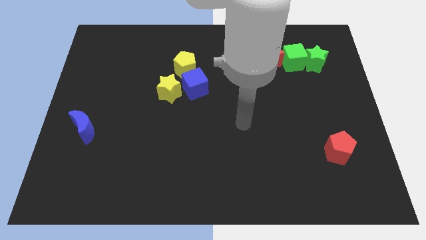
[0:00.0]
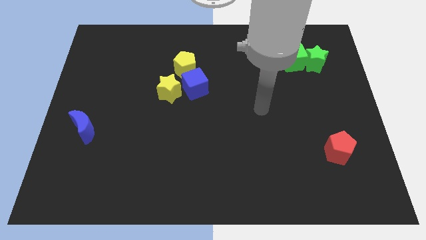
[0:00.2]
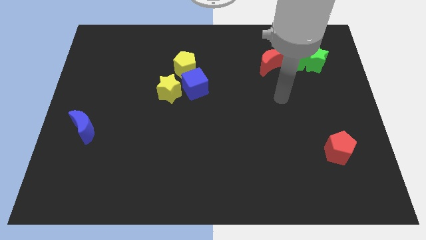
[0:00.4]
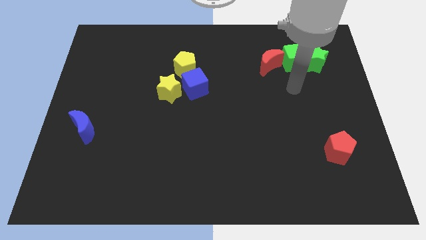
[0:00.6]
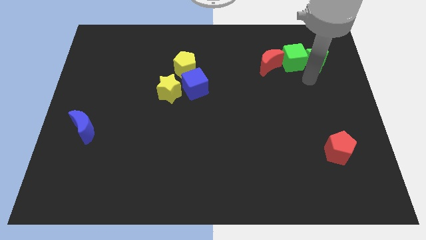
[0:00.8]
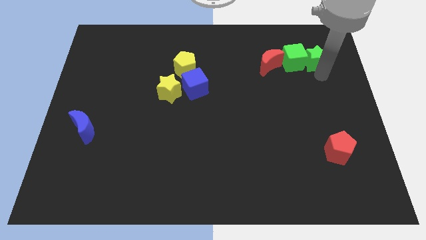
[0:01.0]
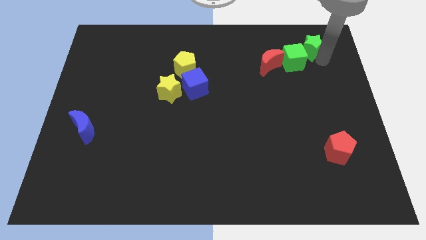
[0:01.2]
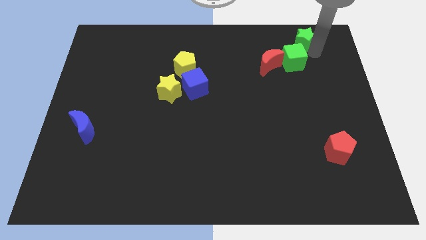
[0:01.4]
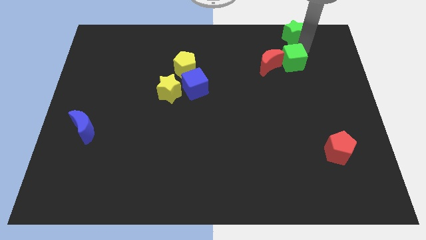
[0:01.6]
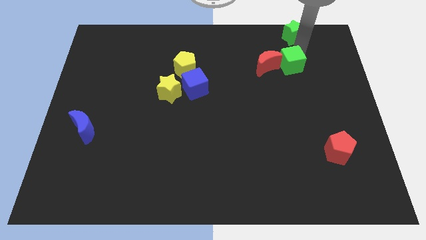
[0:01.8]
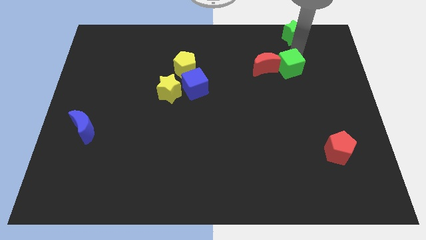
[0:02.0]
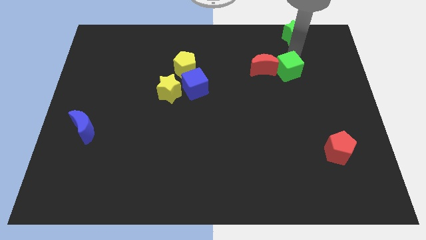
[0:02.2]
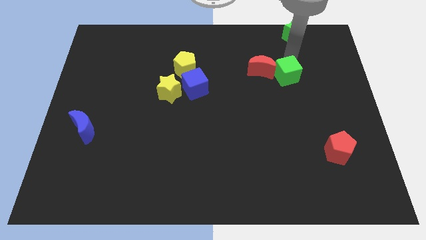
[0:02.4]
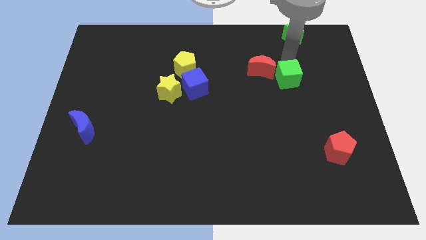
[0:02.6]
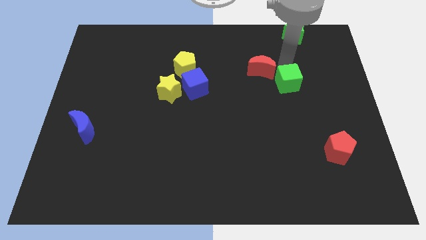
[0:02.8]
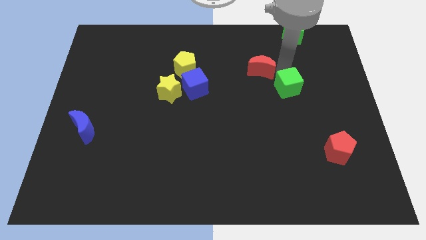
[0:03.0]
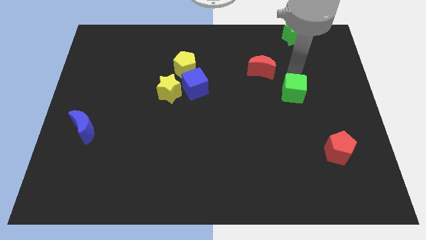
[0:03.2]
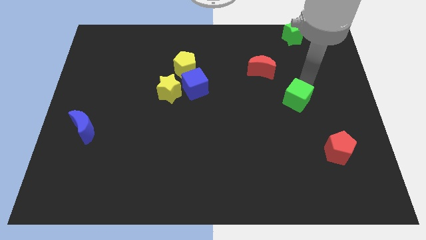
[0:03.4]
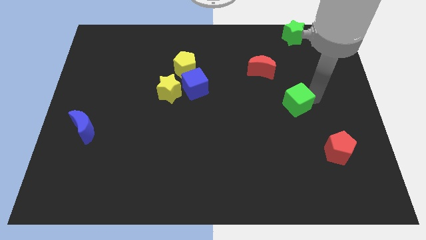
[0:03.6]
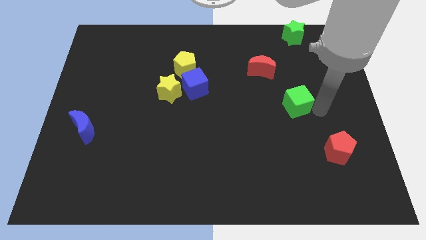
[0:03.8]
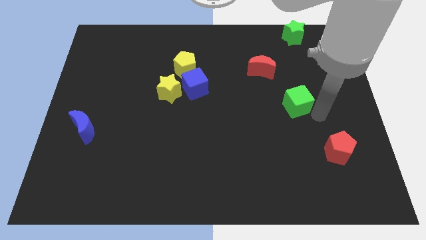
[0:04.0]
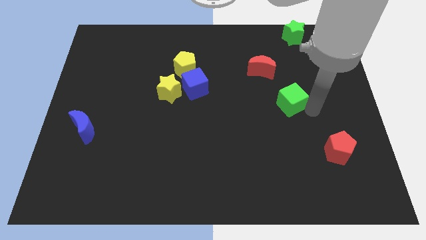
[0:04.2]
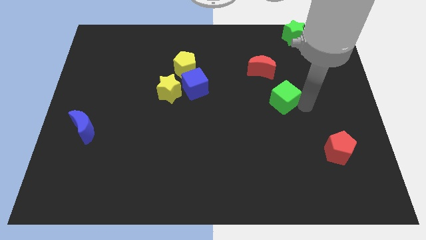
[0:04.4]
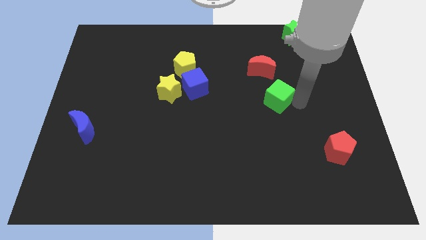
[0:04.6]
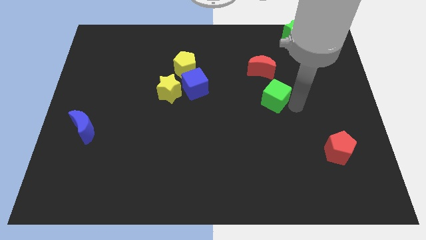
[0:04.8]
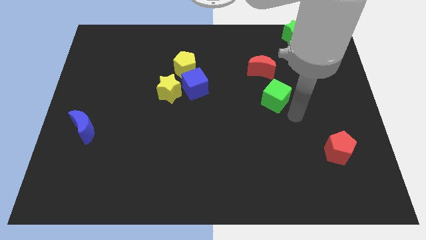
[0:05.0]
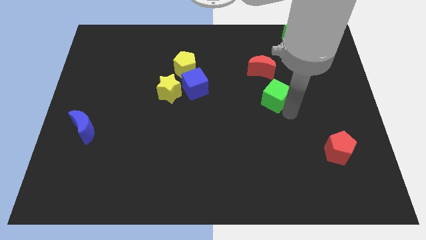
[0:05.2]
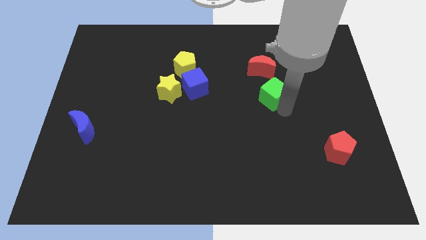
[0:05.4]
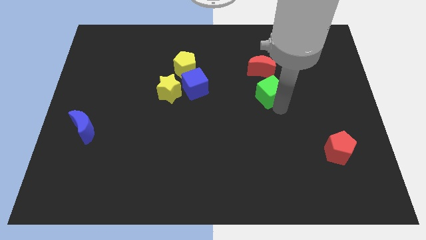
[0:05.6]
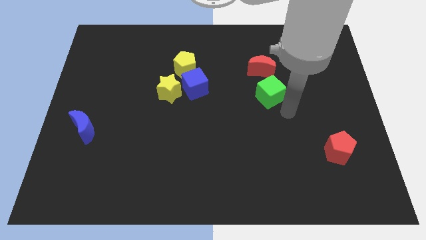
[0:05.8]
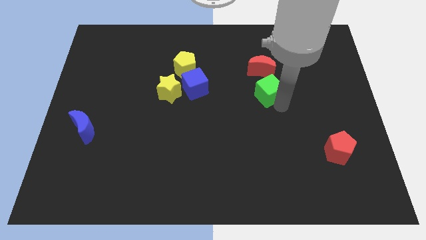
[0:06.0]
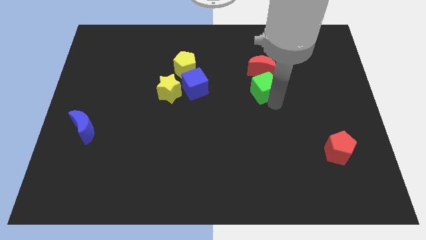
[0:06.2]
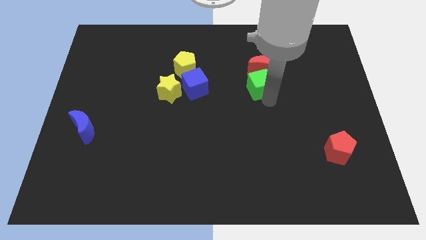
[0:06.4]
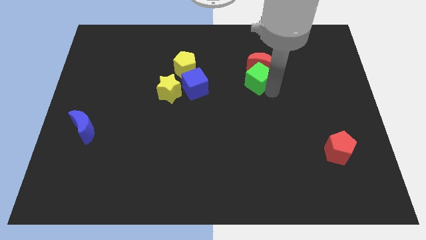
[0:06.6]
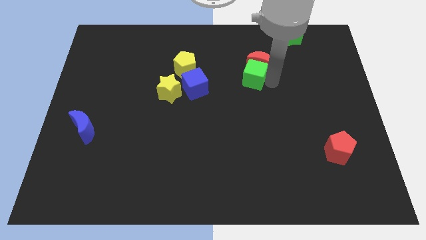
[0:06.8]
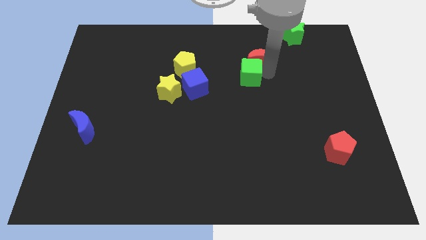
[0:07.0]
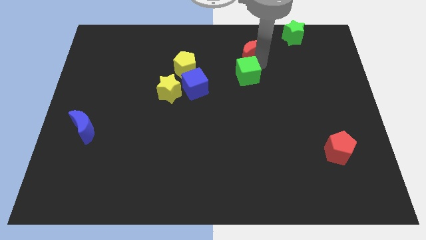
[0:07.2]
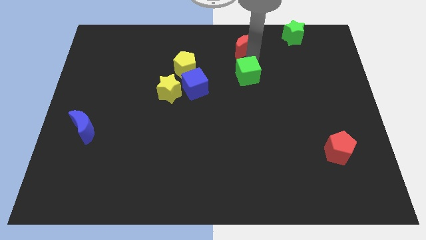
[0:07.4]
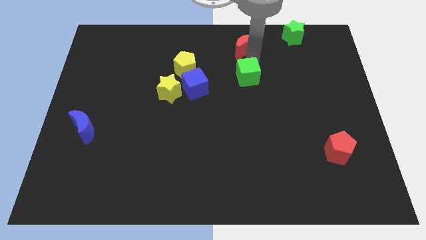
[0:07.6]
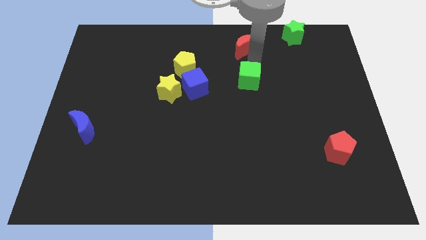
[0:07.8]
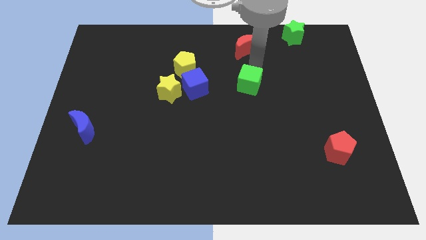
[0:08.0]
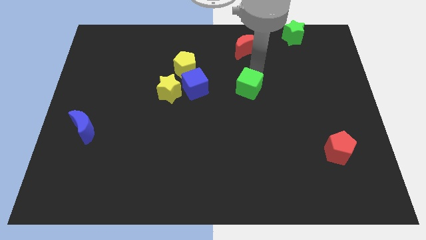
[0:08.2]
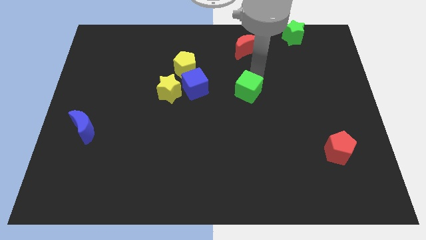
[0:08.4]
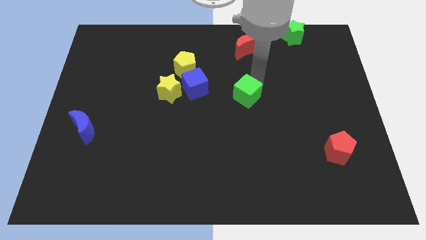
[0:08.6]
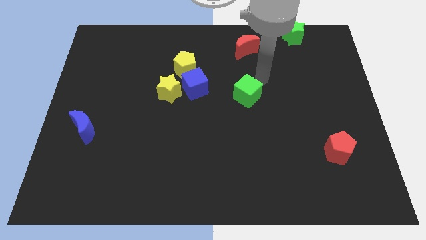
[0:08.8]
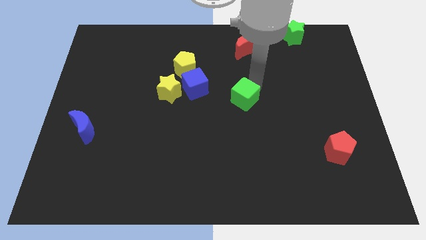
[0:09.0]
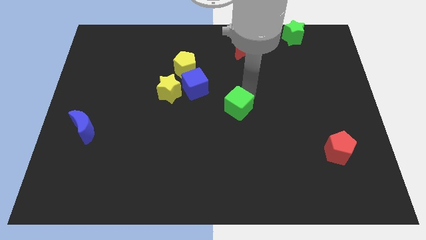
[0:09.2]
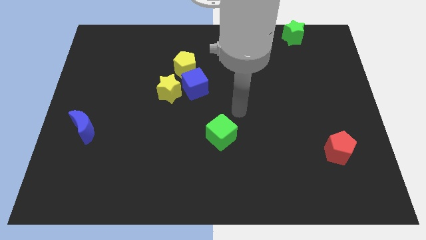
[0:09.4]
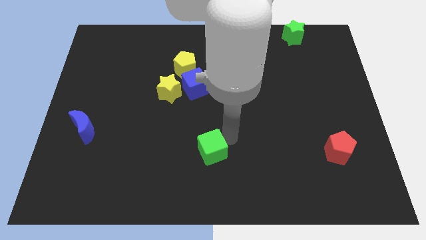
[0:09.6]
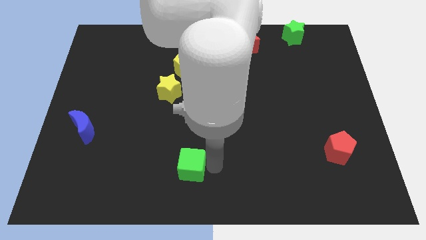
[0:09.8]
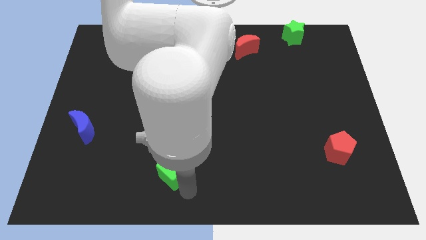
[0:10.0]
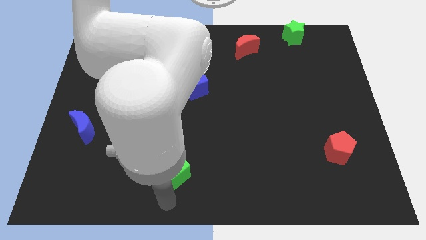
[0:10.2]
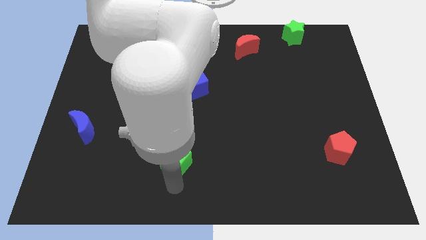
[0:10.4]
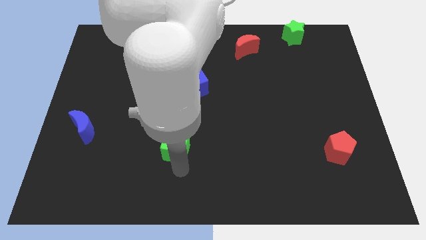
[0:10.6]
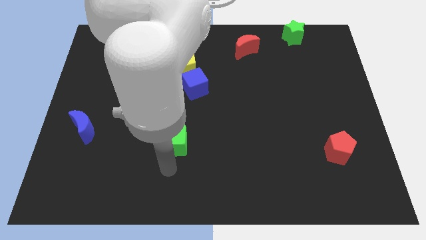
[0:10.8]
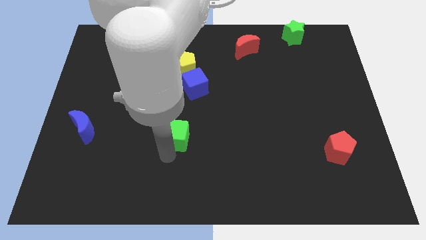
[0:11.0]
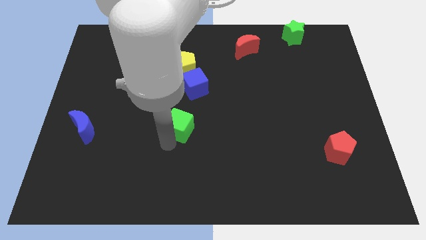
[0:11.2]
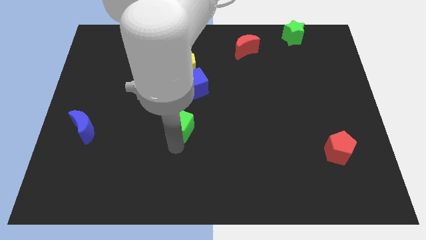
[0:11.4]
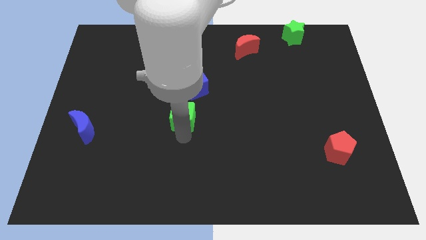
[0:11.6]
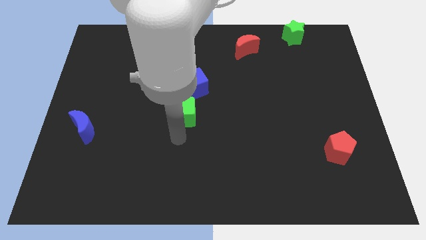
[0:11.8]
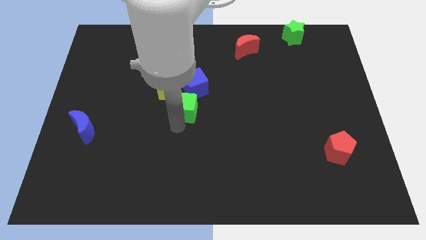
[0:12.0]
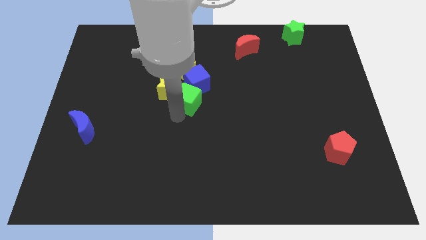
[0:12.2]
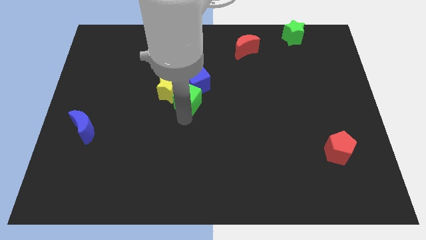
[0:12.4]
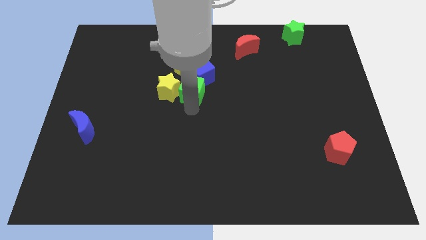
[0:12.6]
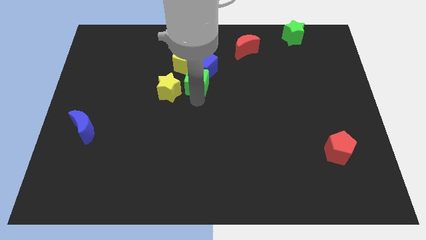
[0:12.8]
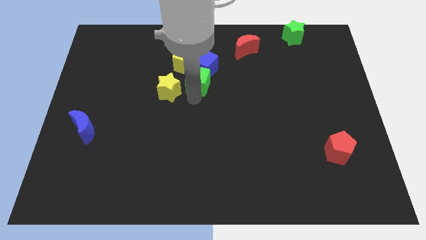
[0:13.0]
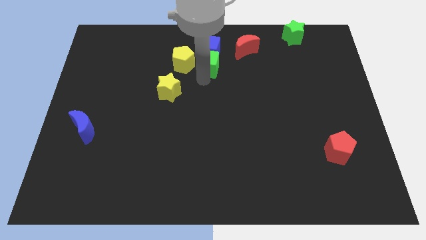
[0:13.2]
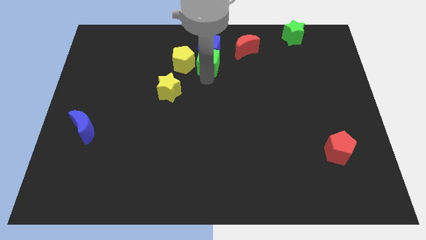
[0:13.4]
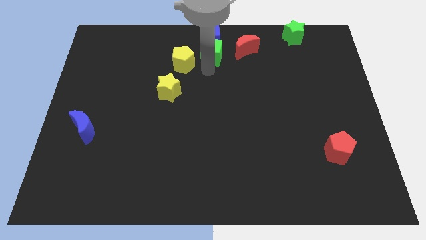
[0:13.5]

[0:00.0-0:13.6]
move the green cube to the top side
